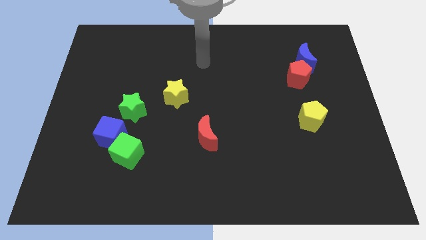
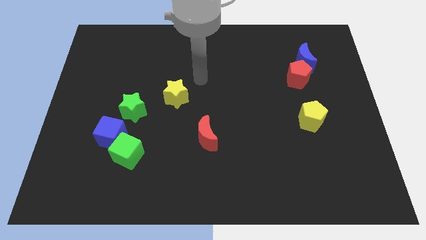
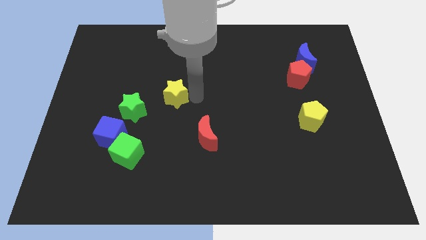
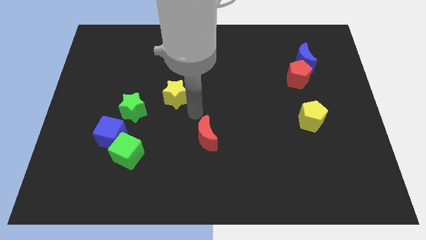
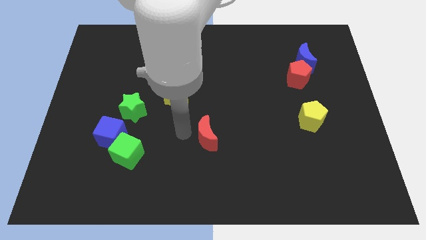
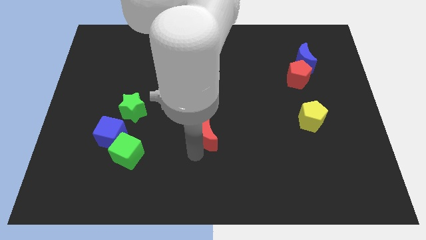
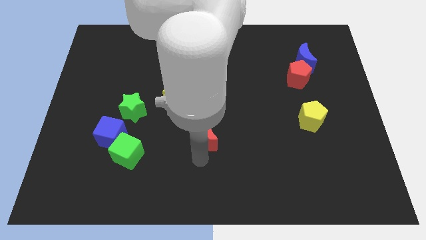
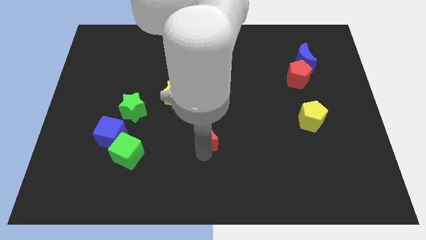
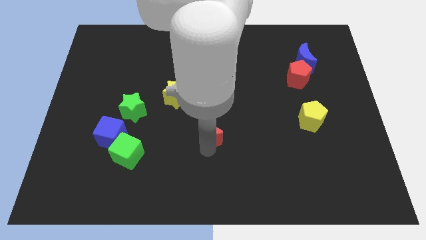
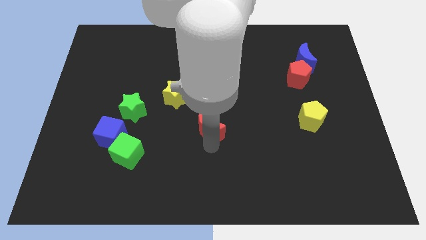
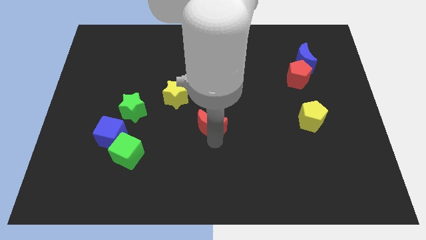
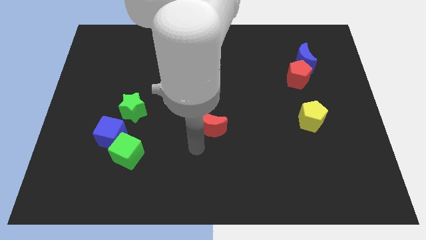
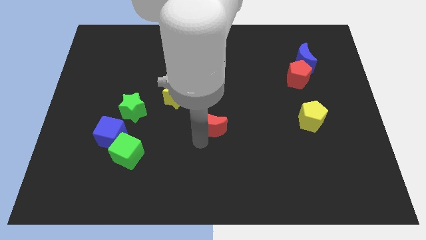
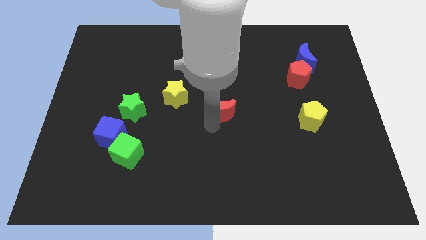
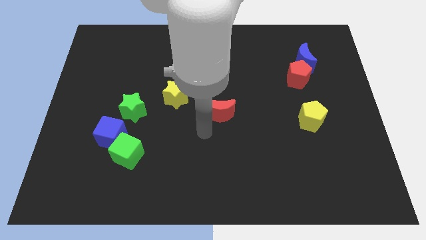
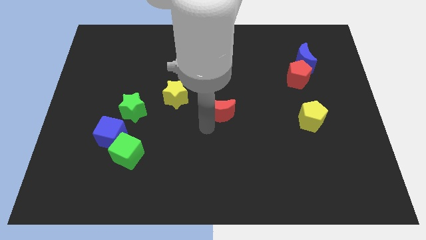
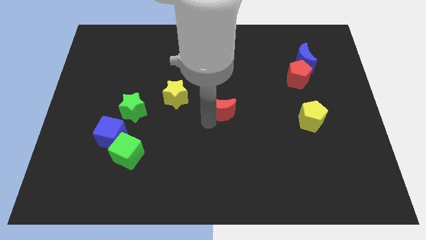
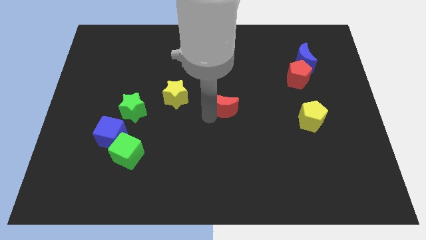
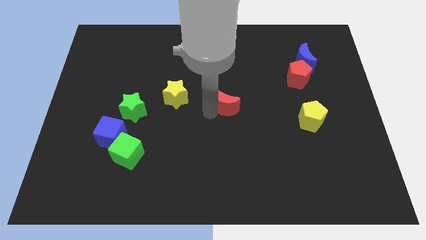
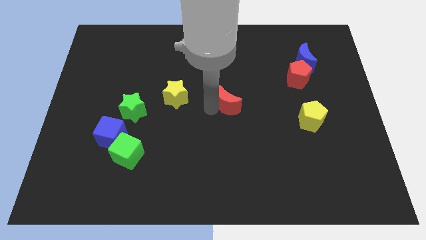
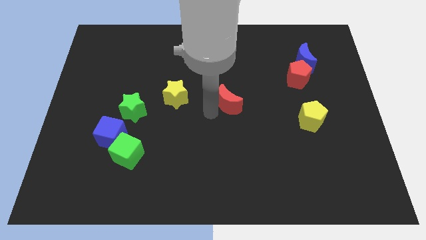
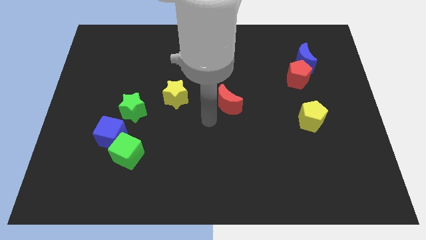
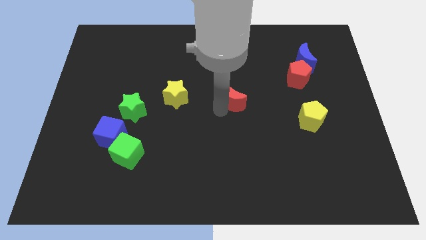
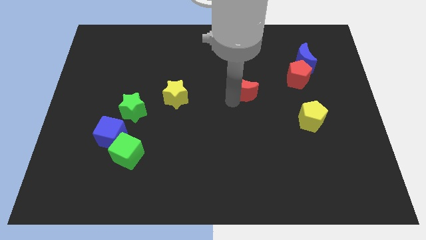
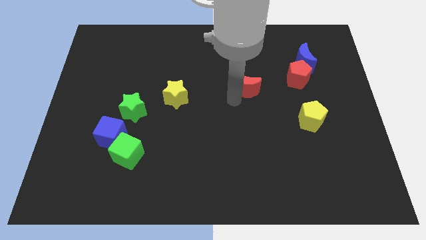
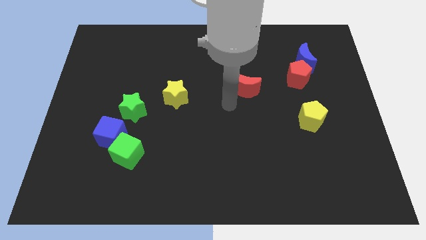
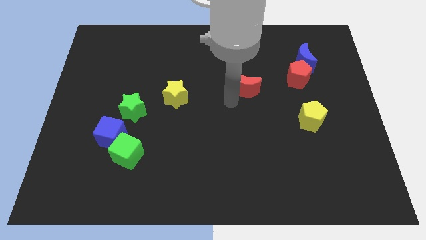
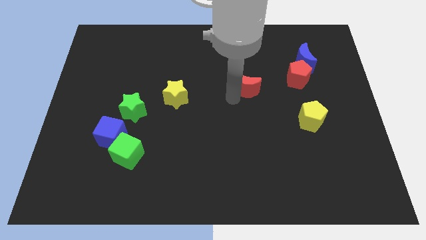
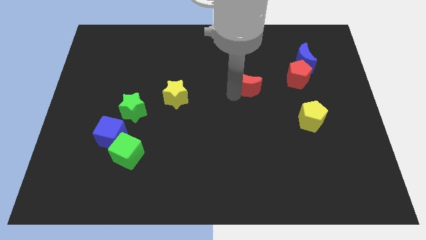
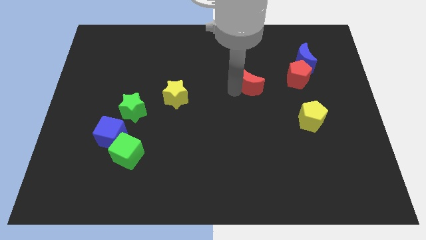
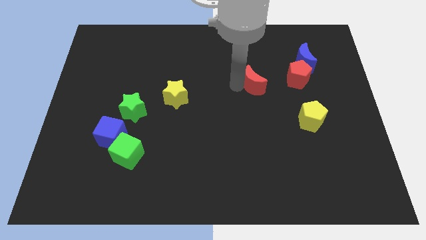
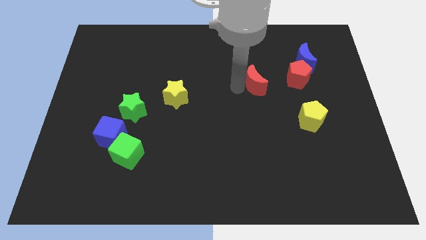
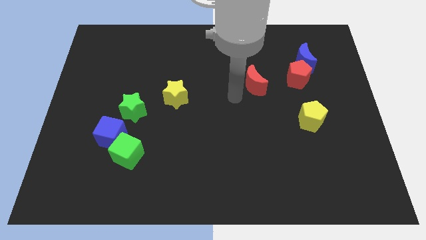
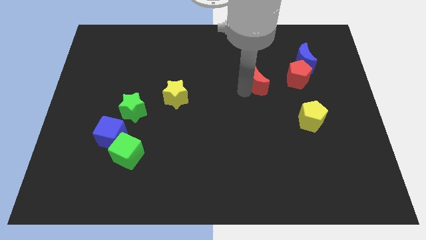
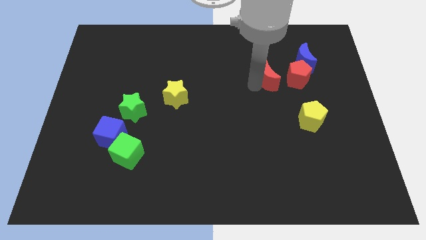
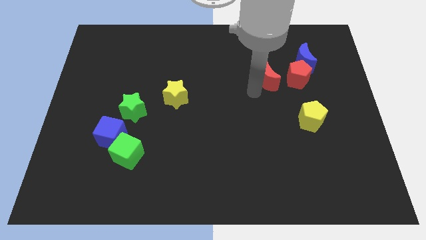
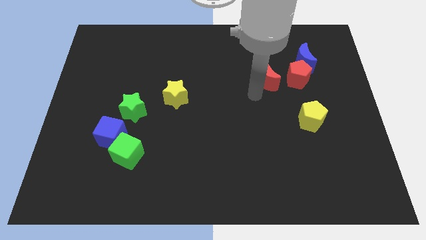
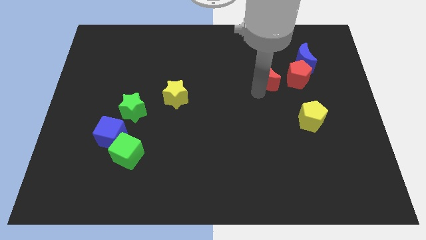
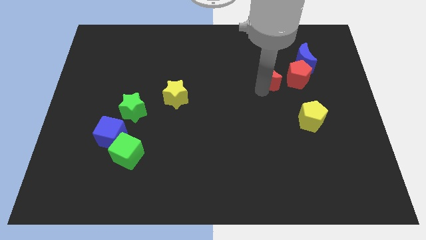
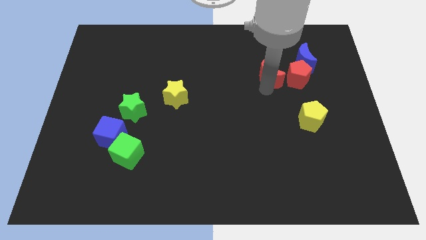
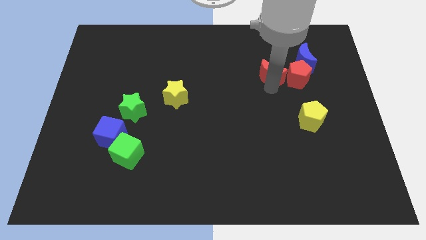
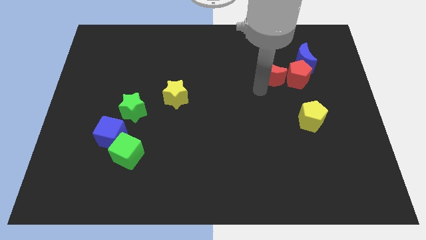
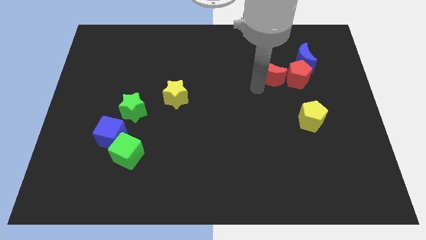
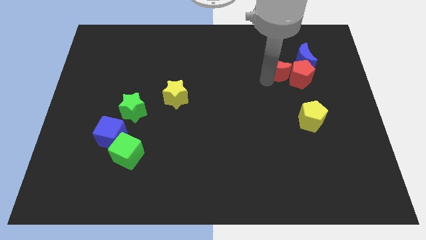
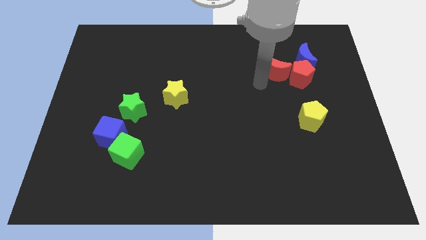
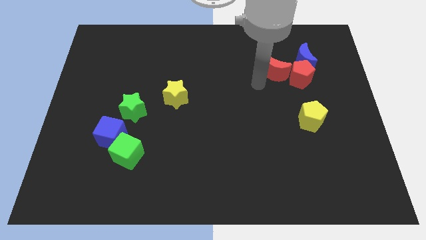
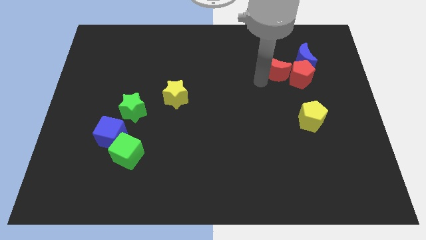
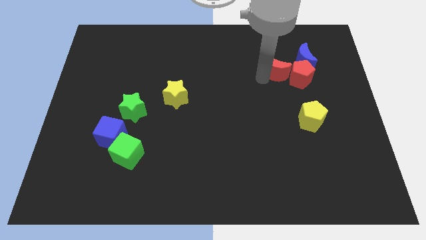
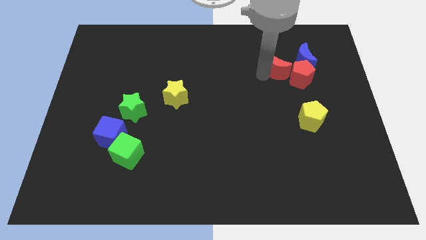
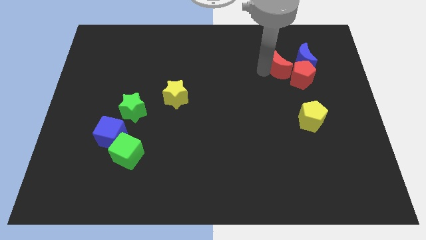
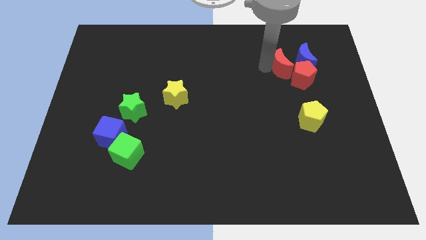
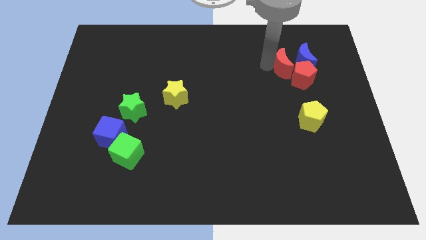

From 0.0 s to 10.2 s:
put the red moon close to the blue moon

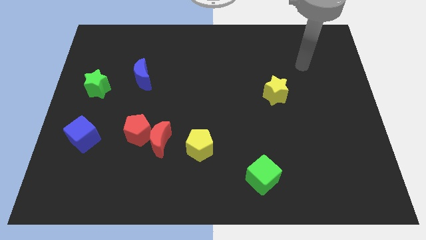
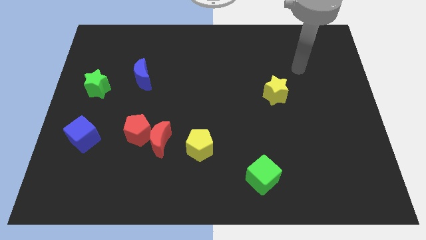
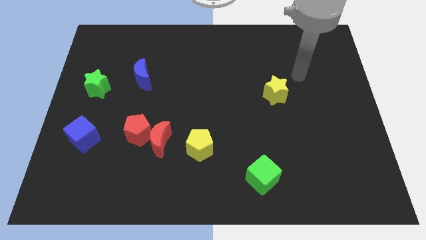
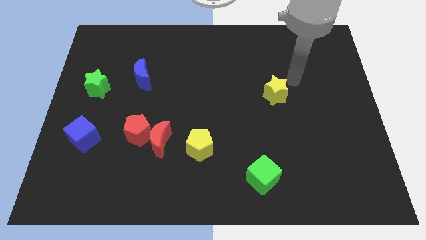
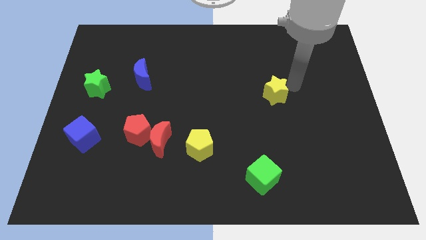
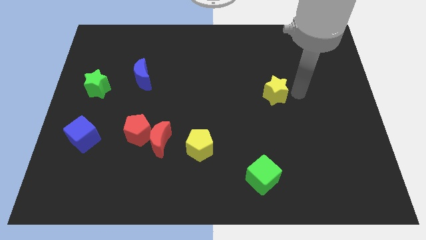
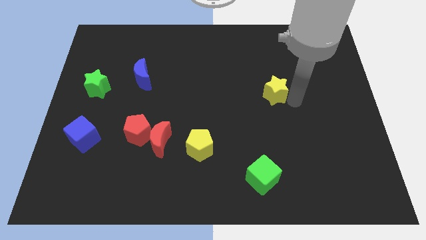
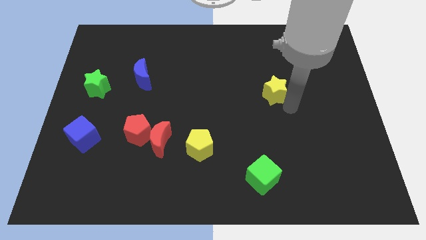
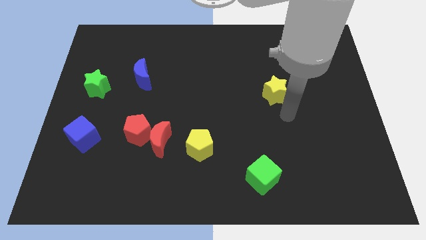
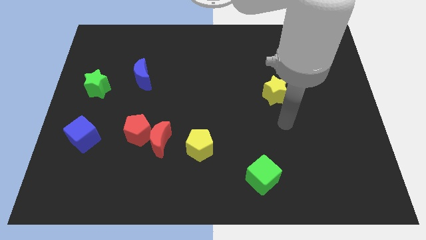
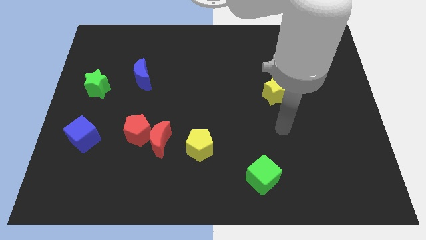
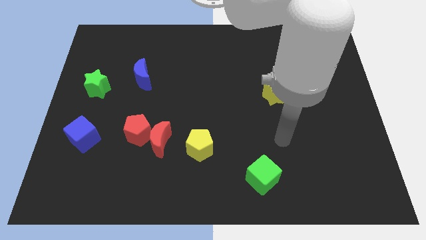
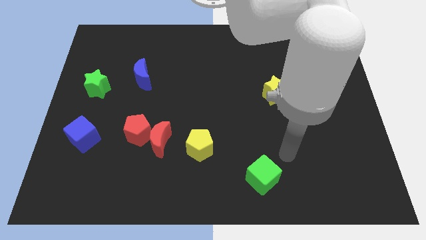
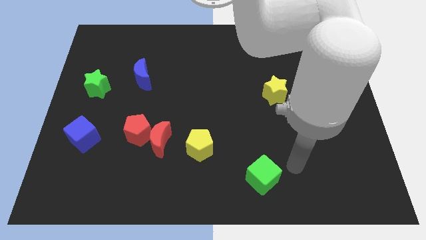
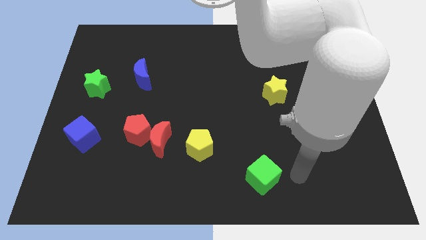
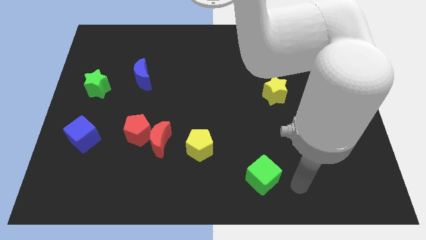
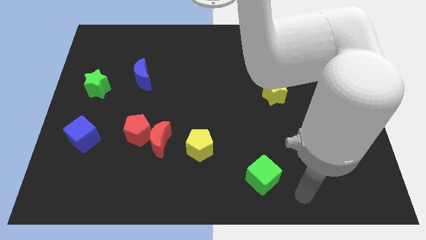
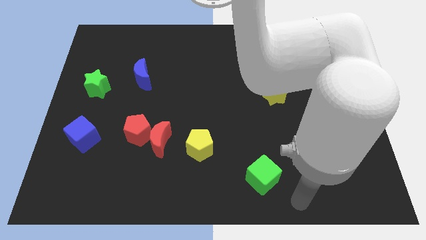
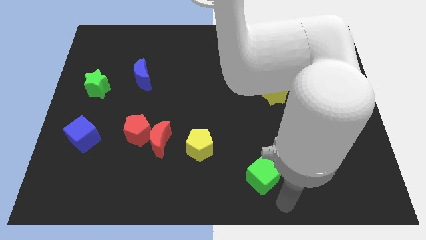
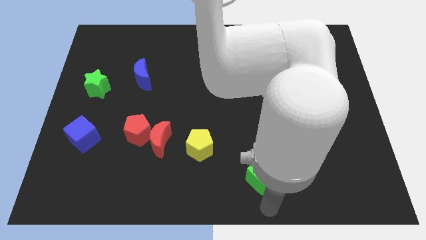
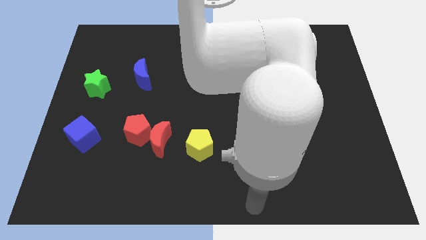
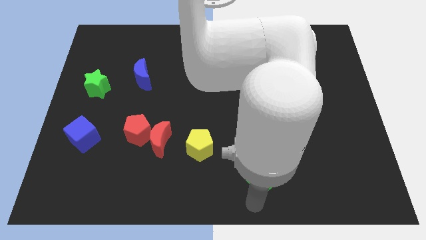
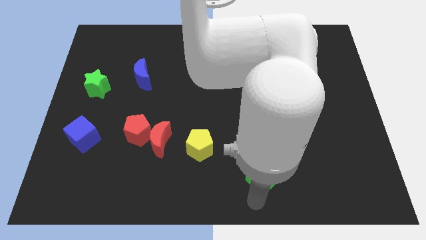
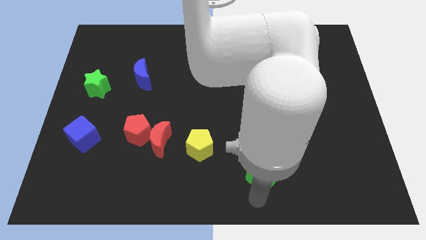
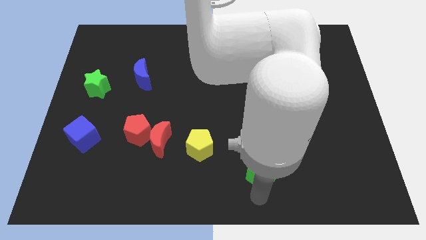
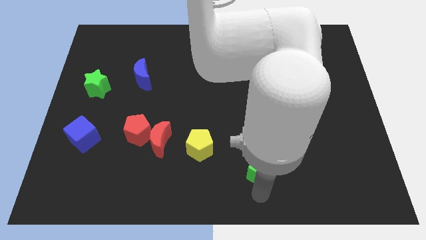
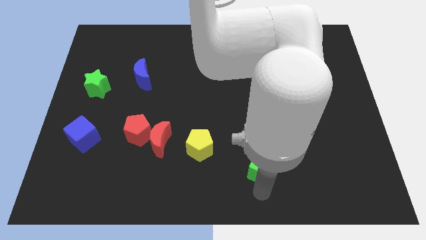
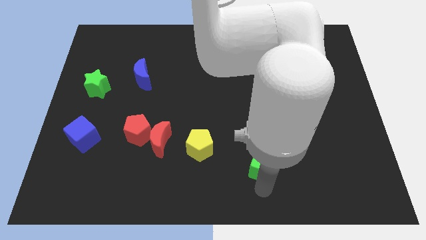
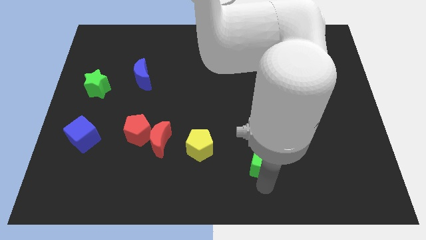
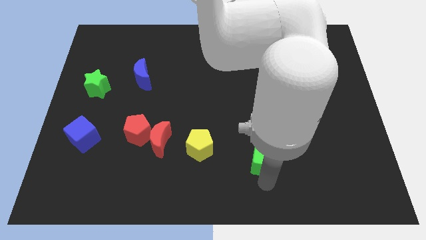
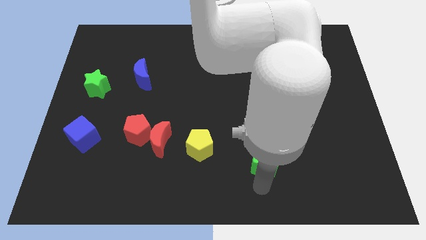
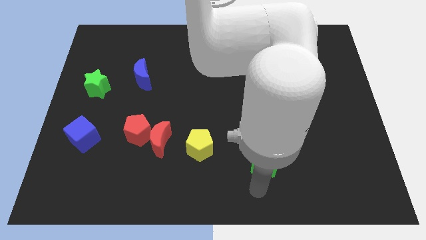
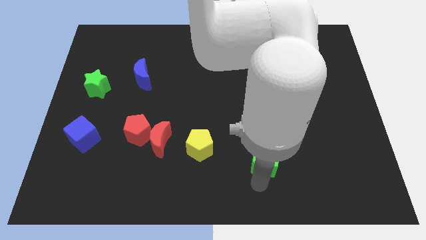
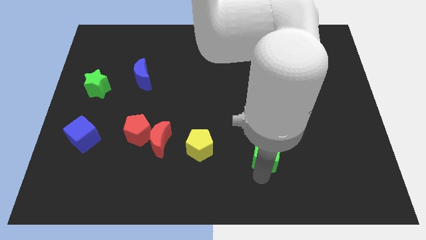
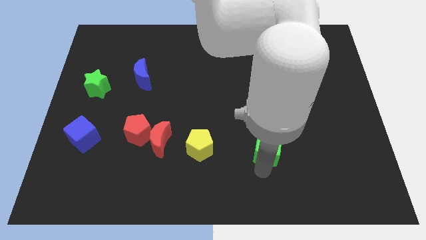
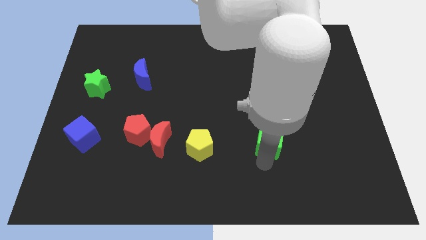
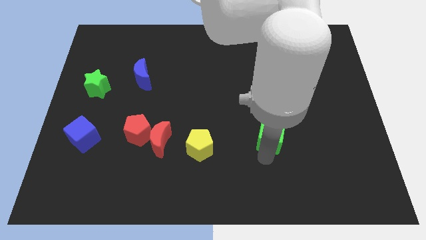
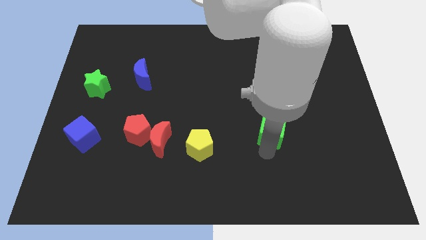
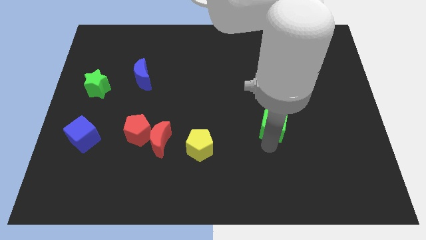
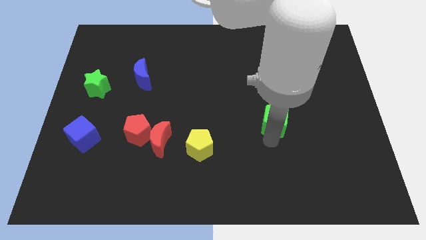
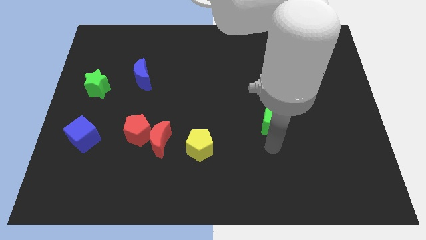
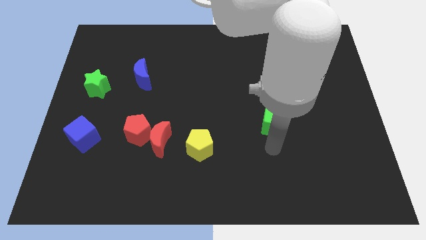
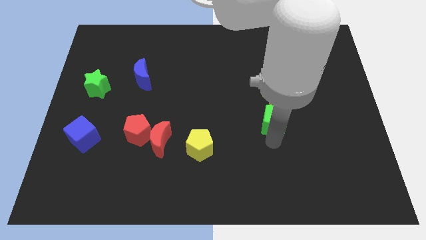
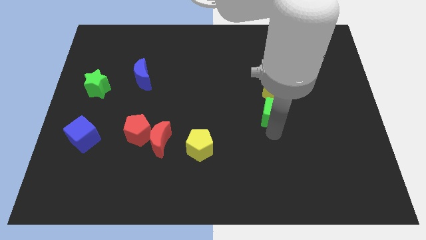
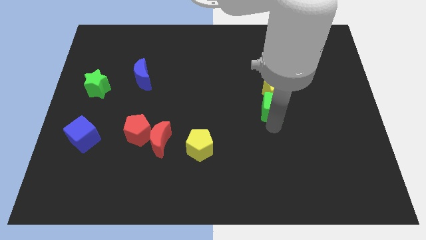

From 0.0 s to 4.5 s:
move the green cube to the yellow star
